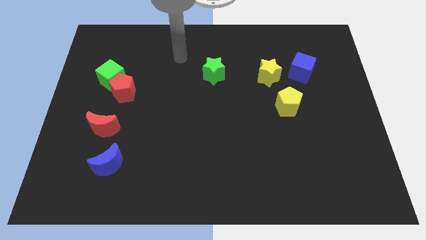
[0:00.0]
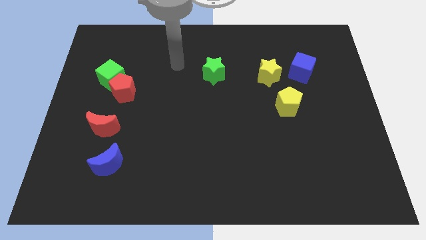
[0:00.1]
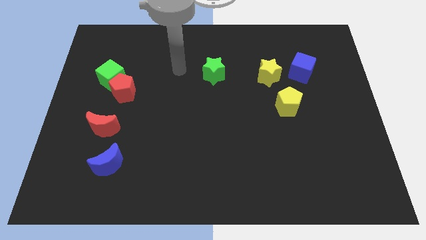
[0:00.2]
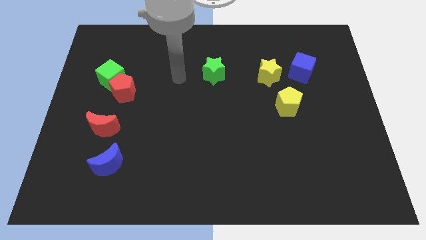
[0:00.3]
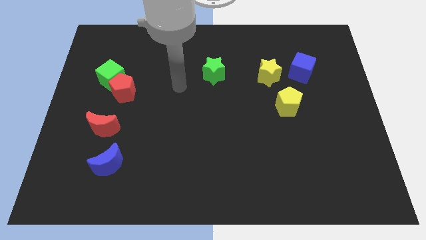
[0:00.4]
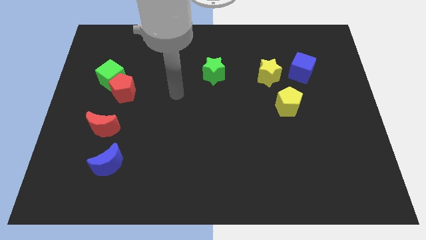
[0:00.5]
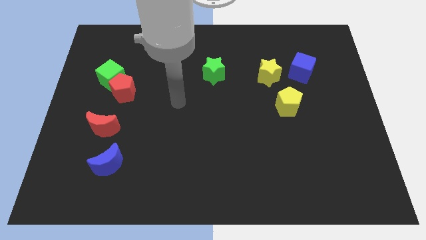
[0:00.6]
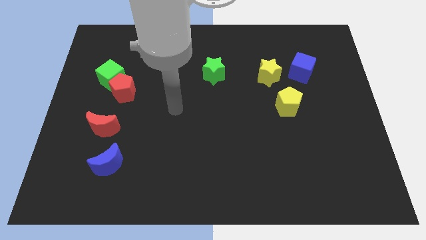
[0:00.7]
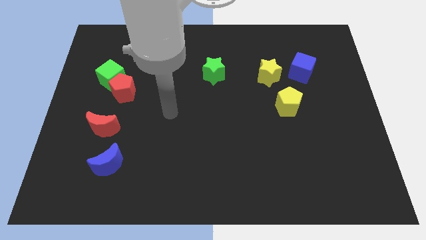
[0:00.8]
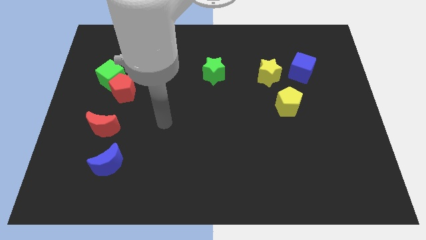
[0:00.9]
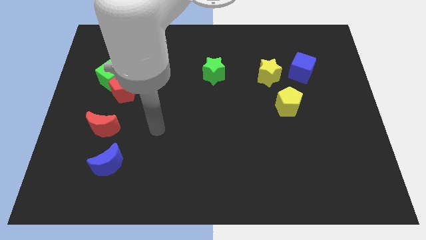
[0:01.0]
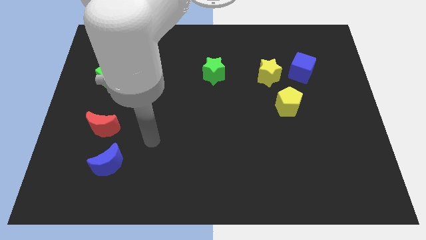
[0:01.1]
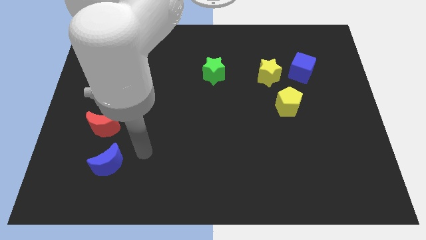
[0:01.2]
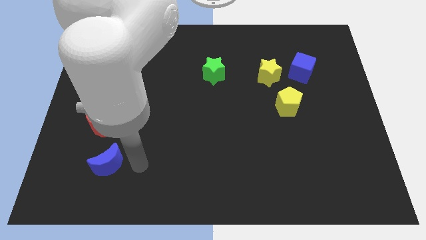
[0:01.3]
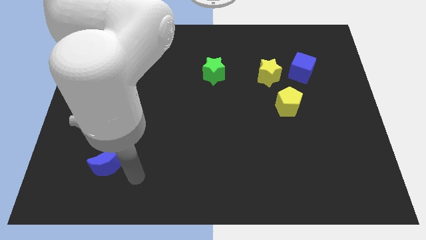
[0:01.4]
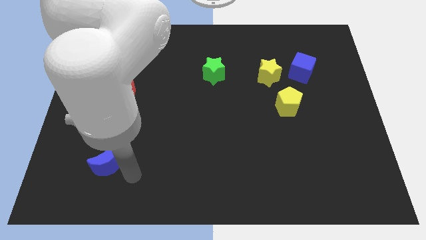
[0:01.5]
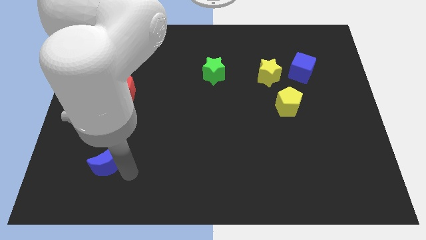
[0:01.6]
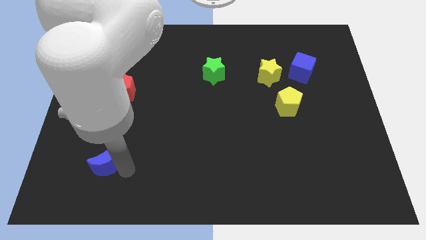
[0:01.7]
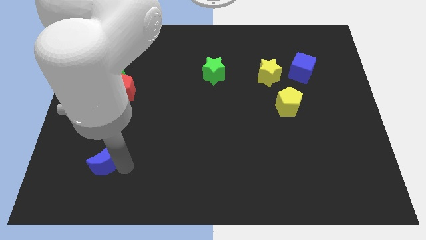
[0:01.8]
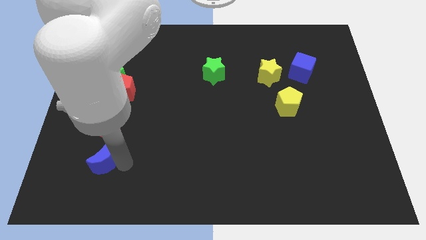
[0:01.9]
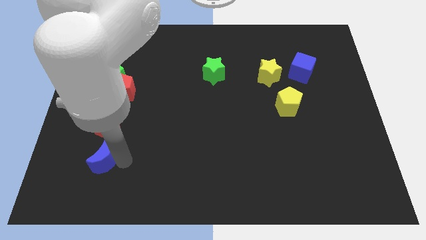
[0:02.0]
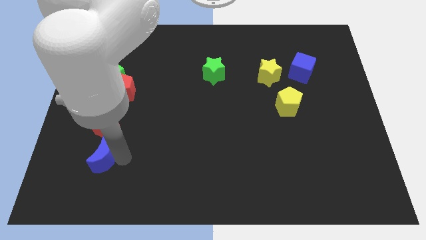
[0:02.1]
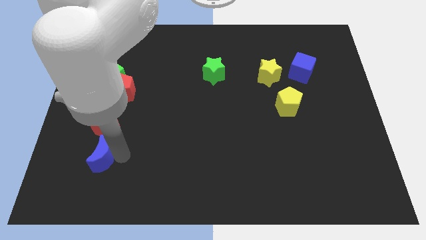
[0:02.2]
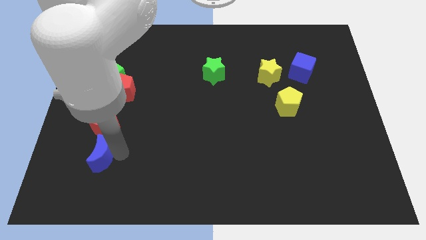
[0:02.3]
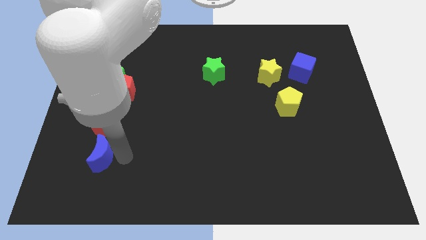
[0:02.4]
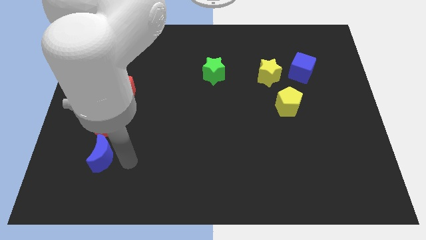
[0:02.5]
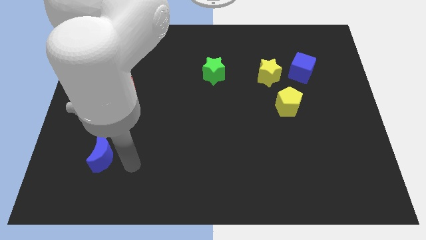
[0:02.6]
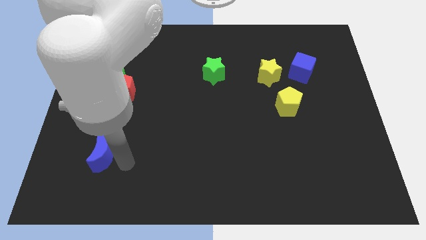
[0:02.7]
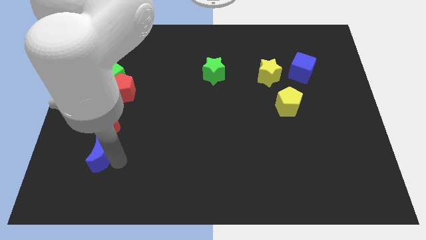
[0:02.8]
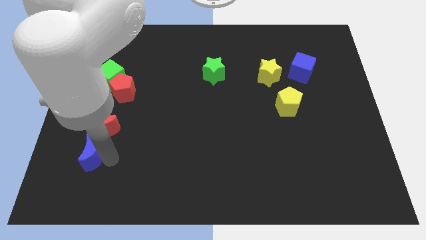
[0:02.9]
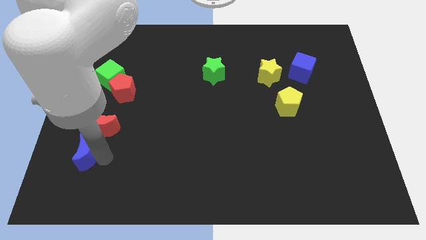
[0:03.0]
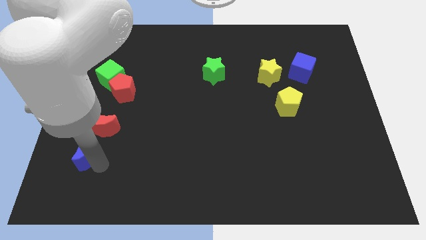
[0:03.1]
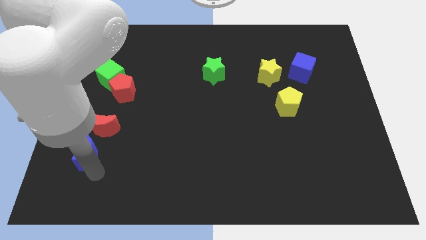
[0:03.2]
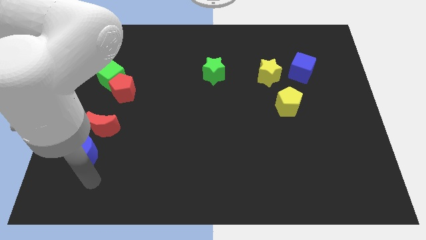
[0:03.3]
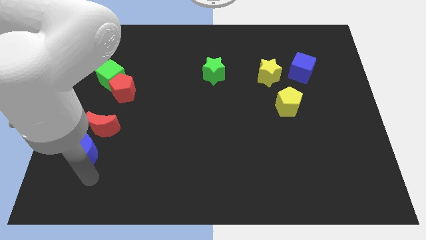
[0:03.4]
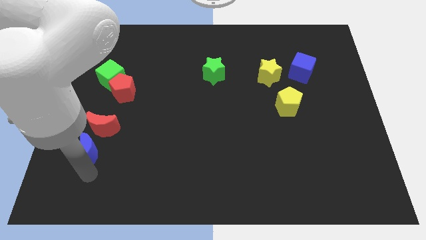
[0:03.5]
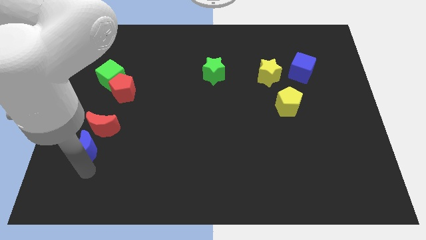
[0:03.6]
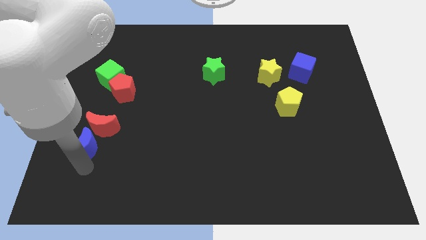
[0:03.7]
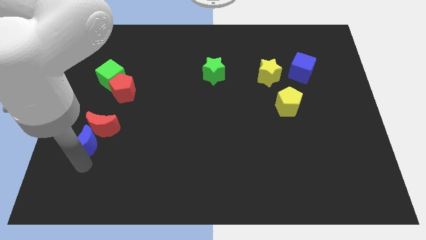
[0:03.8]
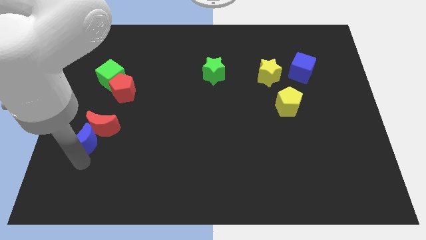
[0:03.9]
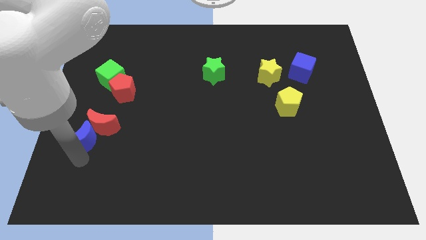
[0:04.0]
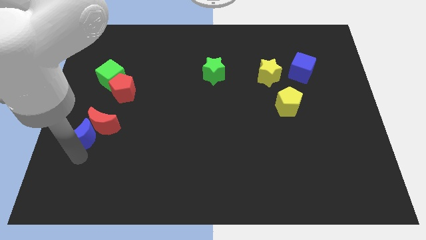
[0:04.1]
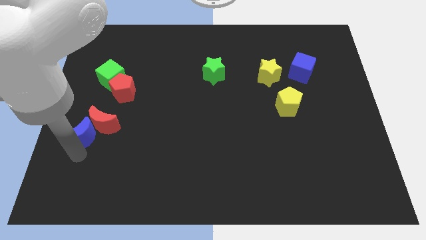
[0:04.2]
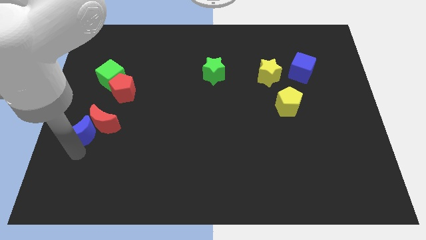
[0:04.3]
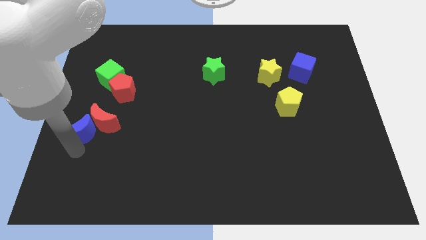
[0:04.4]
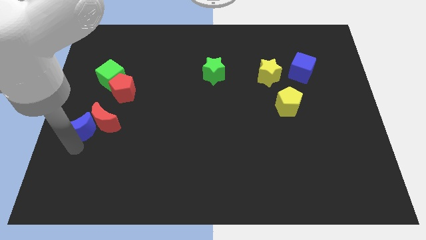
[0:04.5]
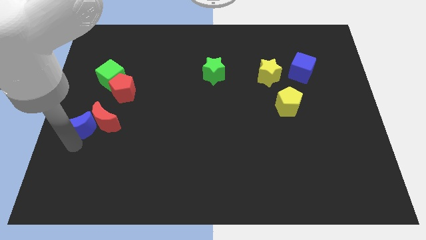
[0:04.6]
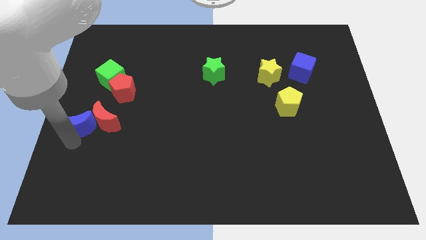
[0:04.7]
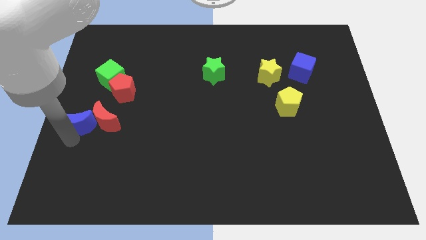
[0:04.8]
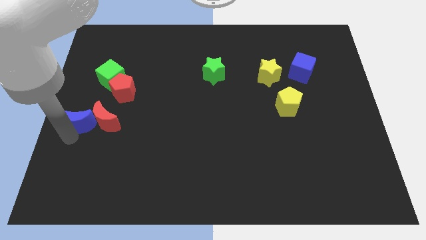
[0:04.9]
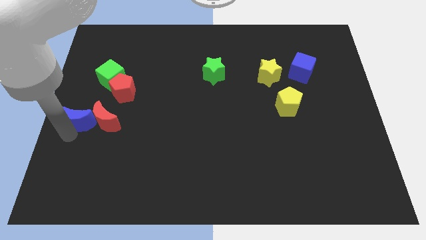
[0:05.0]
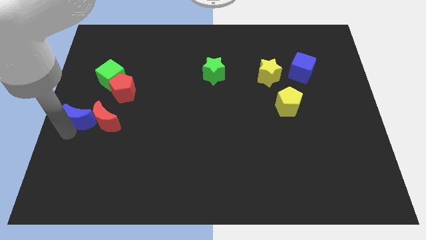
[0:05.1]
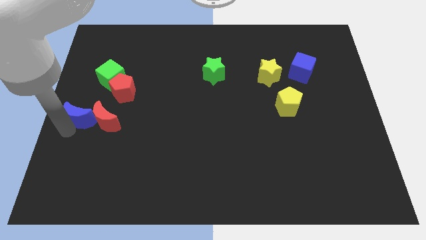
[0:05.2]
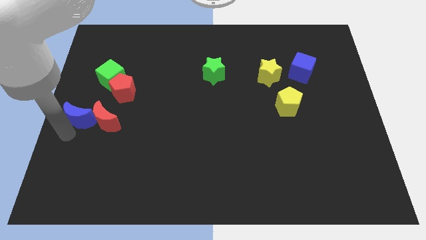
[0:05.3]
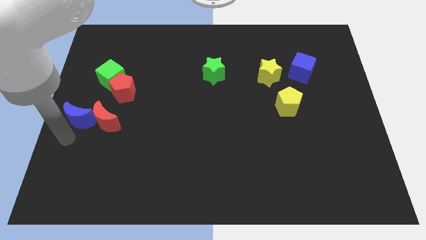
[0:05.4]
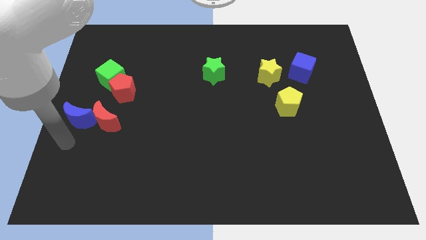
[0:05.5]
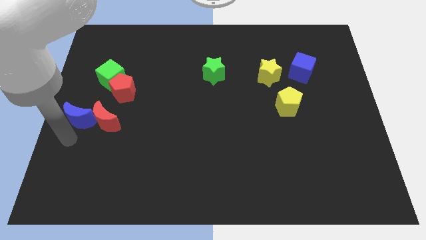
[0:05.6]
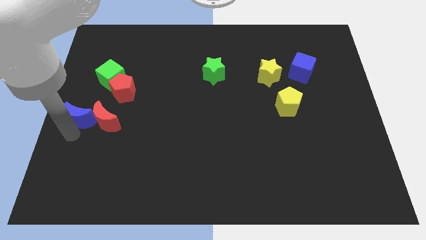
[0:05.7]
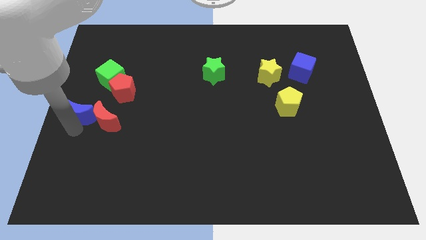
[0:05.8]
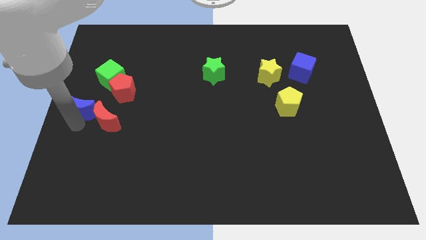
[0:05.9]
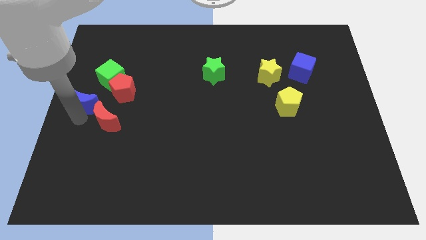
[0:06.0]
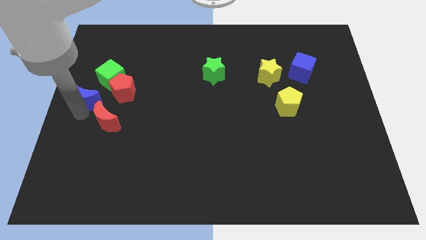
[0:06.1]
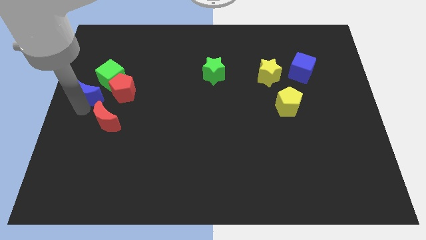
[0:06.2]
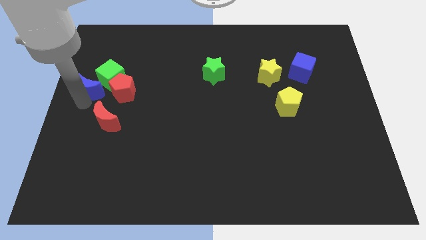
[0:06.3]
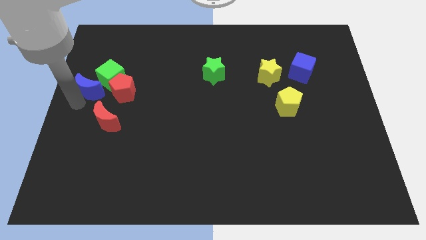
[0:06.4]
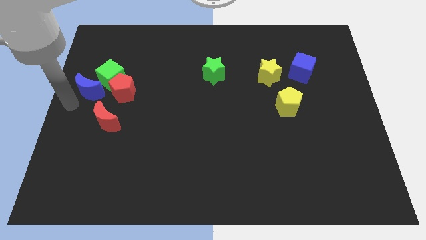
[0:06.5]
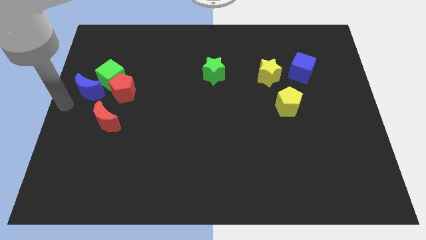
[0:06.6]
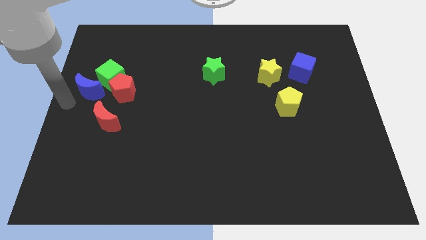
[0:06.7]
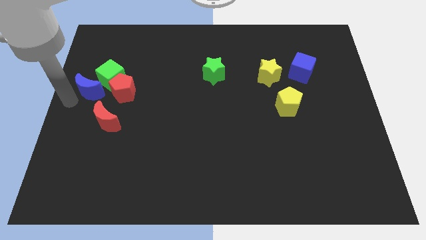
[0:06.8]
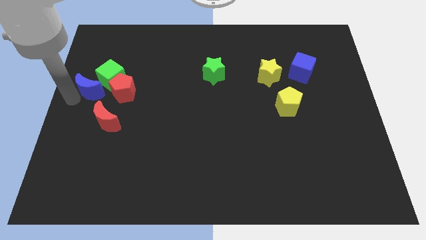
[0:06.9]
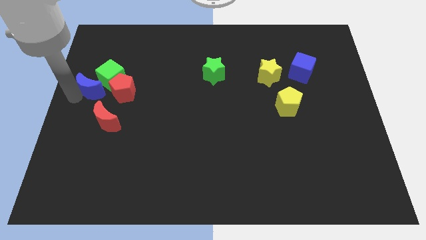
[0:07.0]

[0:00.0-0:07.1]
push the blue moon to the green cube

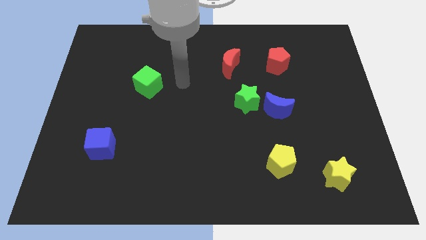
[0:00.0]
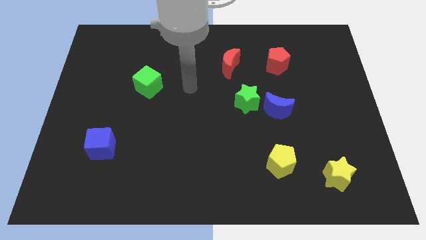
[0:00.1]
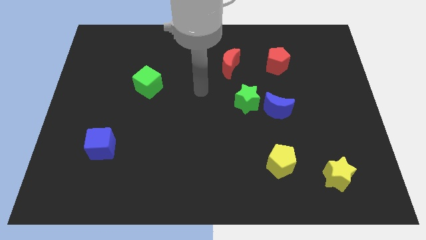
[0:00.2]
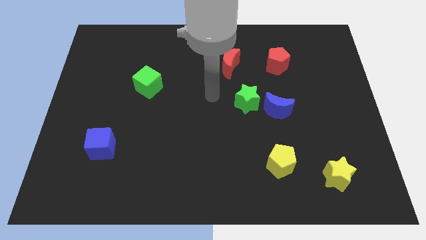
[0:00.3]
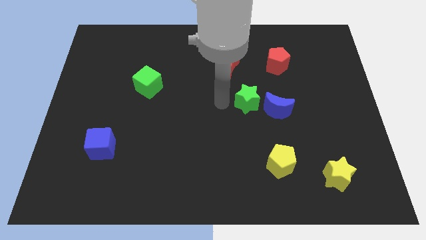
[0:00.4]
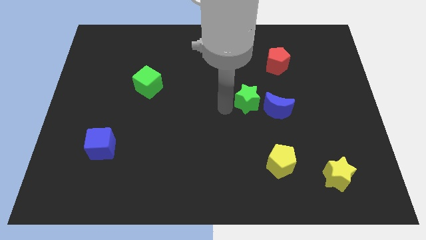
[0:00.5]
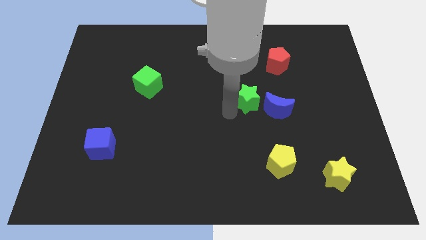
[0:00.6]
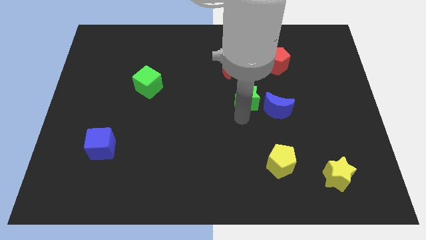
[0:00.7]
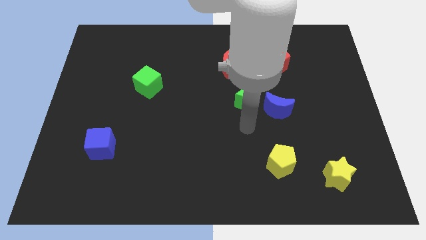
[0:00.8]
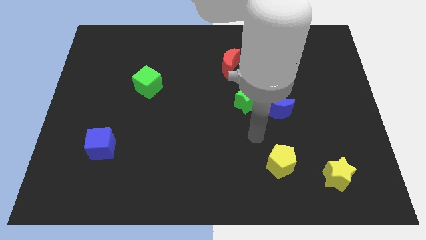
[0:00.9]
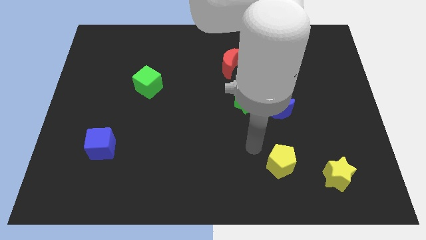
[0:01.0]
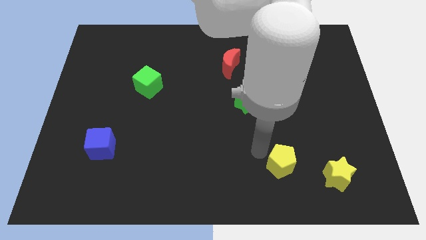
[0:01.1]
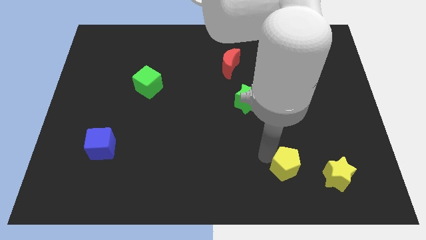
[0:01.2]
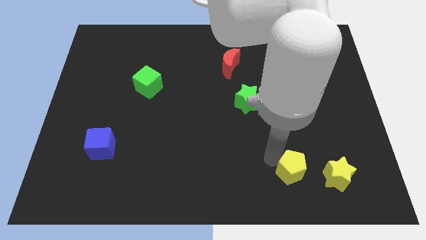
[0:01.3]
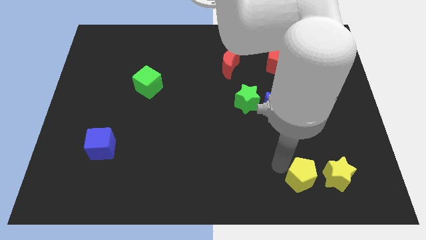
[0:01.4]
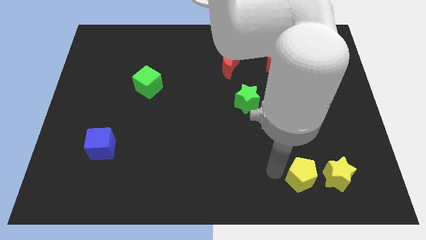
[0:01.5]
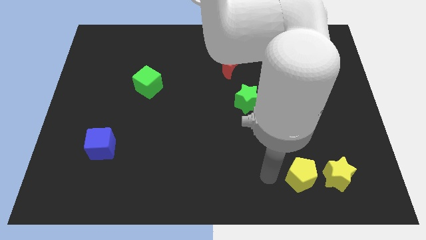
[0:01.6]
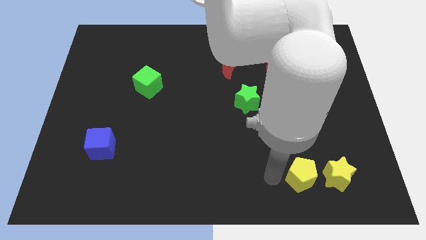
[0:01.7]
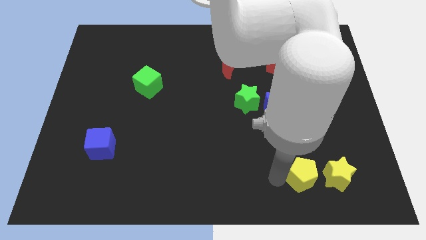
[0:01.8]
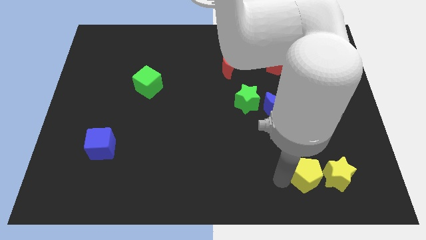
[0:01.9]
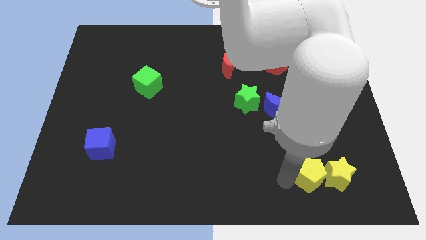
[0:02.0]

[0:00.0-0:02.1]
push the yellow pentagon next to the yellow star
